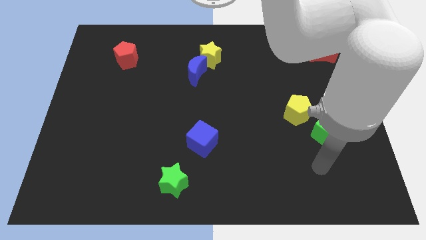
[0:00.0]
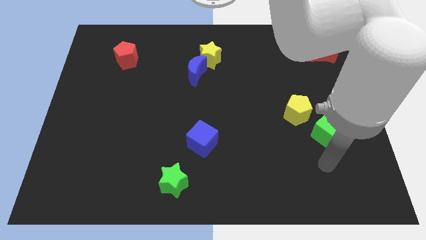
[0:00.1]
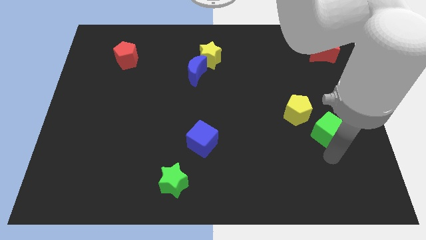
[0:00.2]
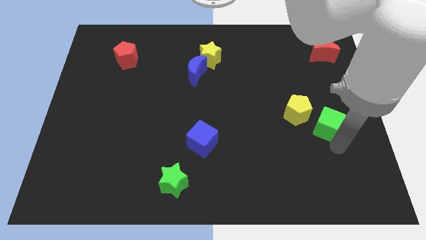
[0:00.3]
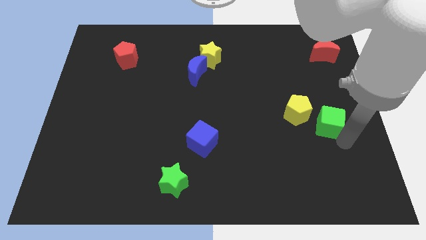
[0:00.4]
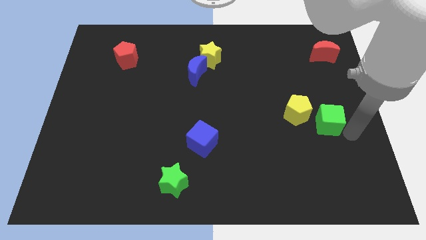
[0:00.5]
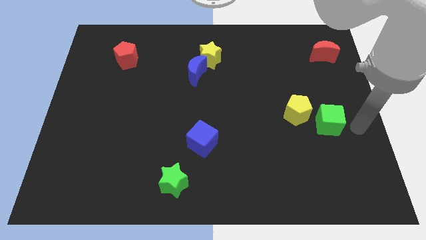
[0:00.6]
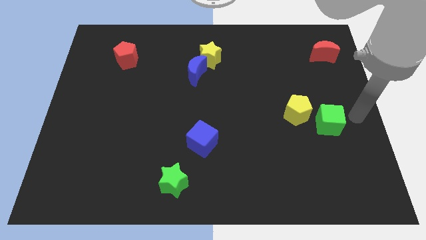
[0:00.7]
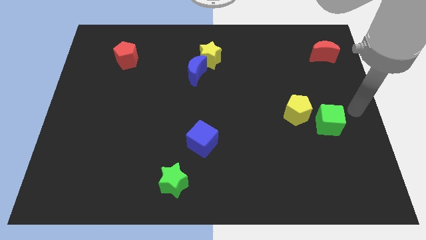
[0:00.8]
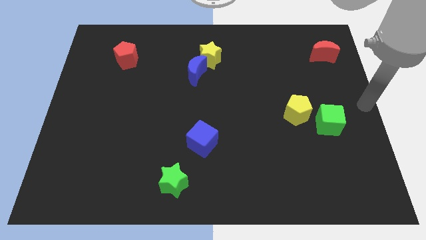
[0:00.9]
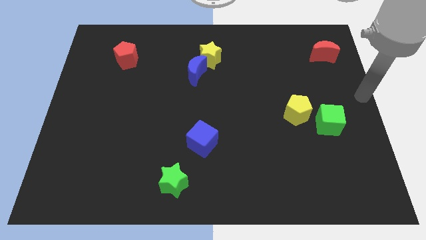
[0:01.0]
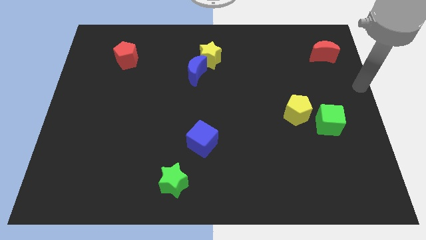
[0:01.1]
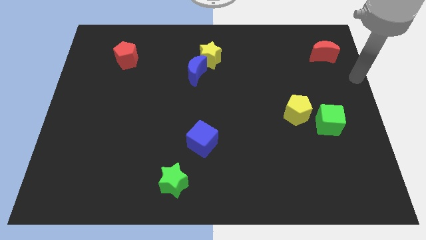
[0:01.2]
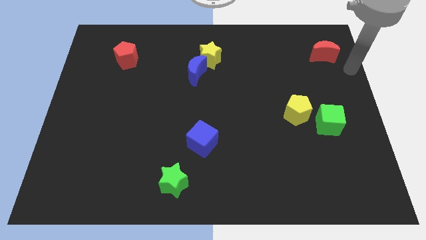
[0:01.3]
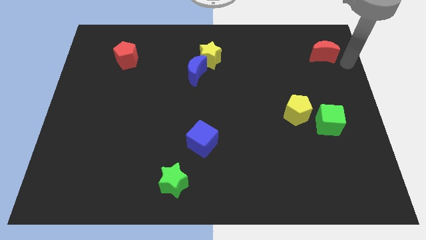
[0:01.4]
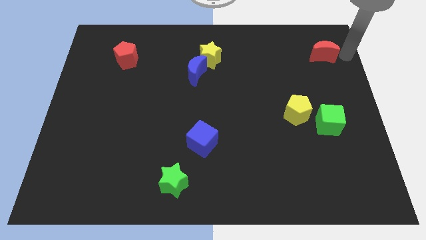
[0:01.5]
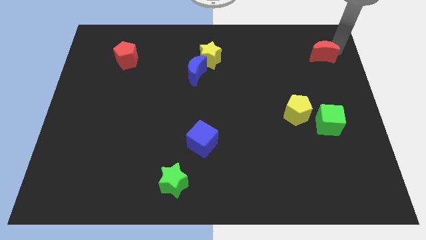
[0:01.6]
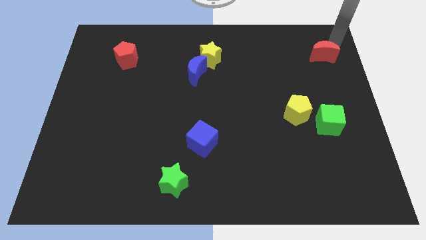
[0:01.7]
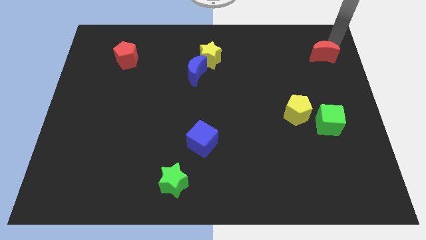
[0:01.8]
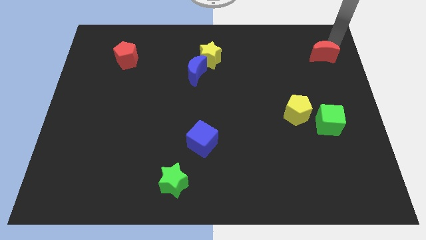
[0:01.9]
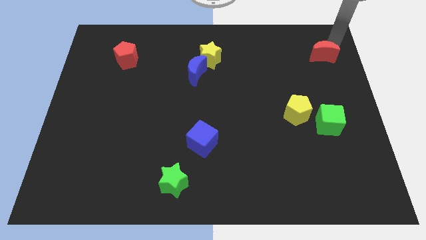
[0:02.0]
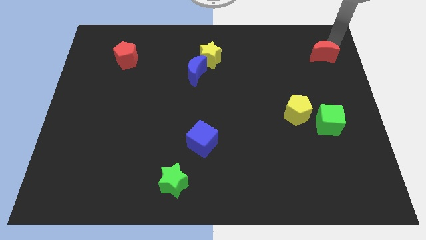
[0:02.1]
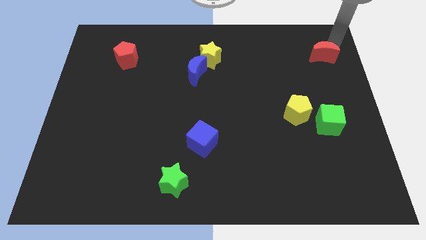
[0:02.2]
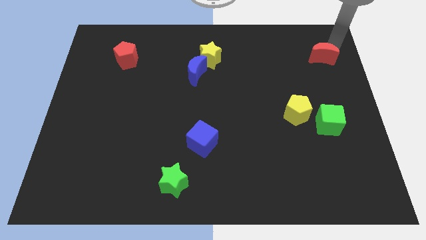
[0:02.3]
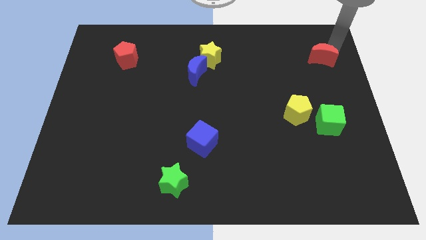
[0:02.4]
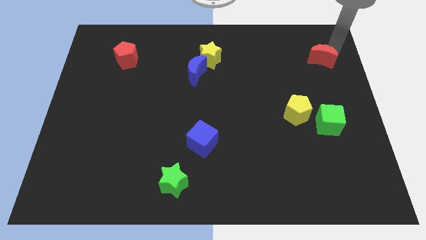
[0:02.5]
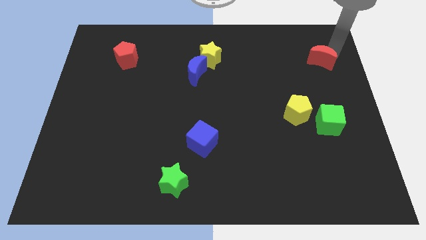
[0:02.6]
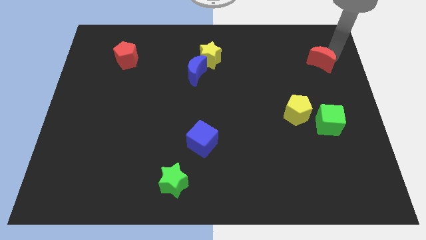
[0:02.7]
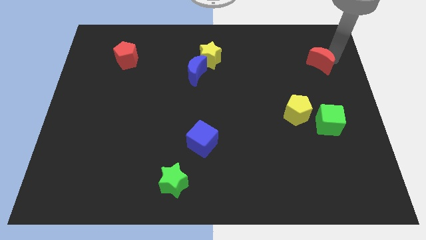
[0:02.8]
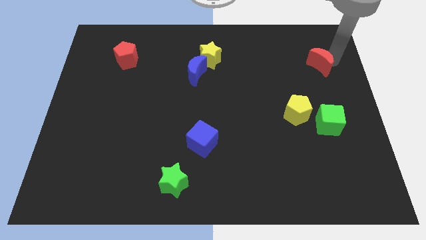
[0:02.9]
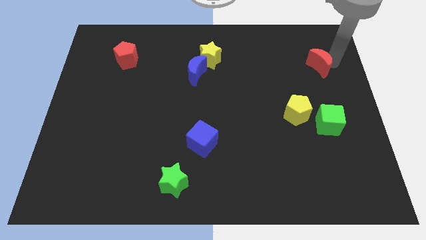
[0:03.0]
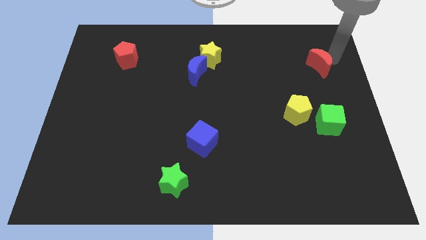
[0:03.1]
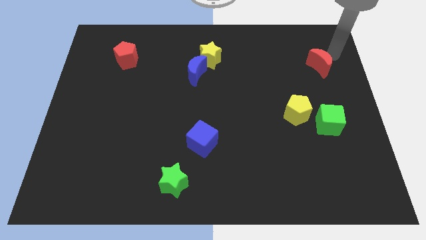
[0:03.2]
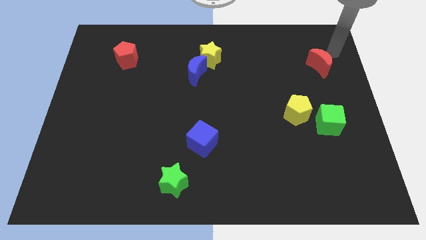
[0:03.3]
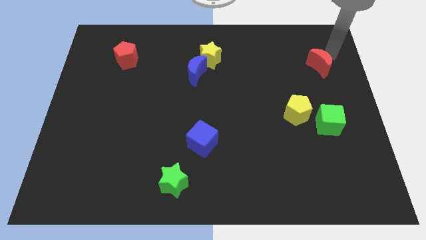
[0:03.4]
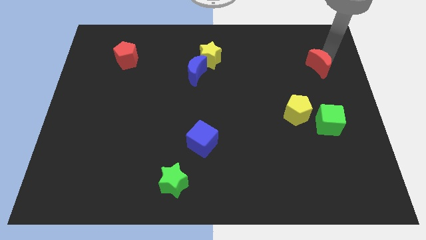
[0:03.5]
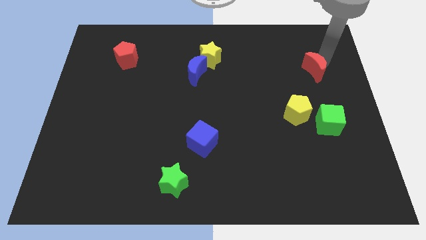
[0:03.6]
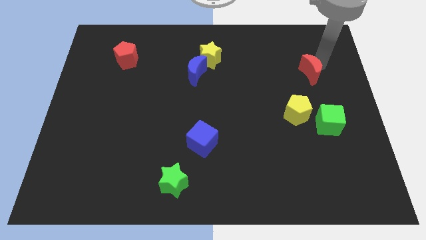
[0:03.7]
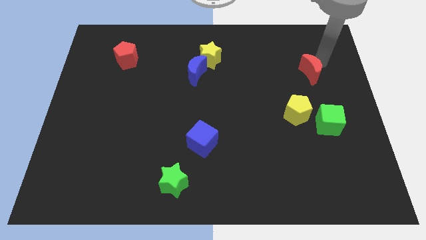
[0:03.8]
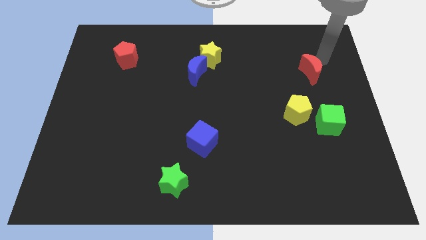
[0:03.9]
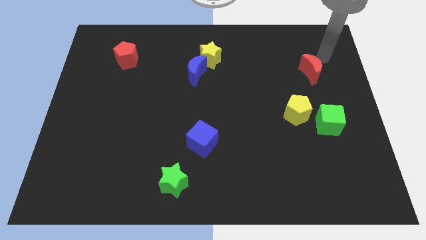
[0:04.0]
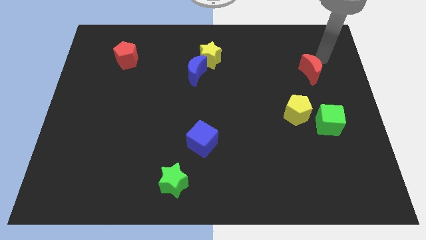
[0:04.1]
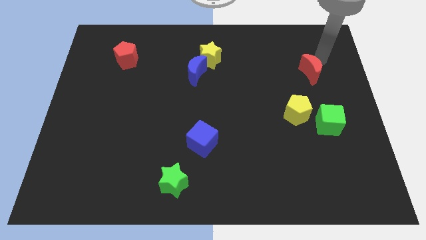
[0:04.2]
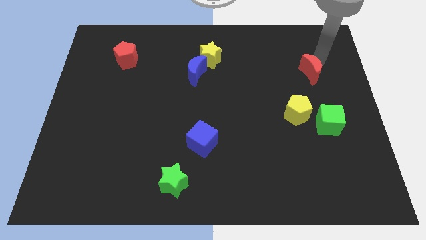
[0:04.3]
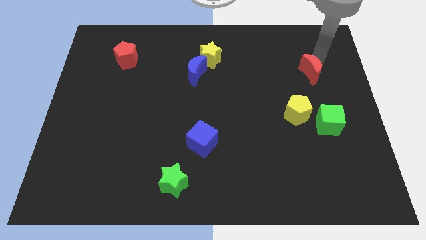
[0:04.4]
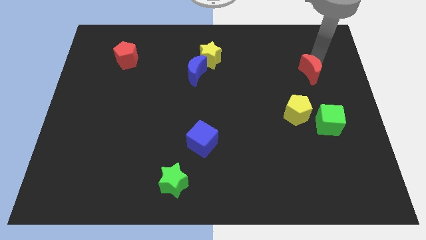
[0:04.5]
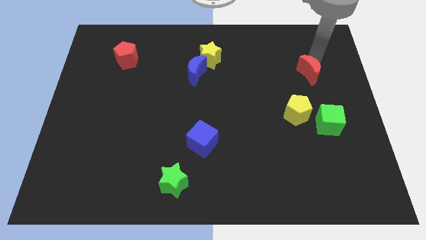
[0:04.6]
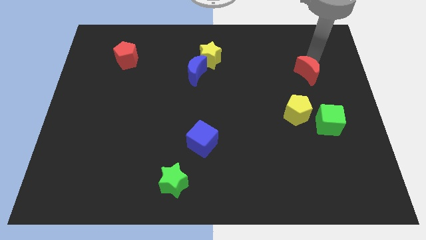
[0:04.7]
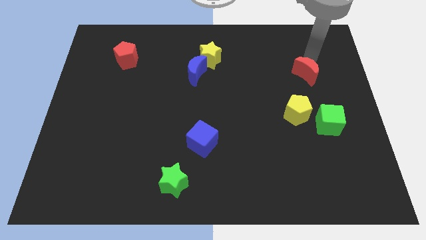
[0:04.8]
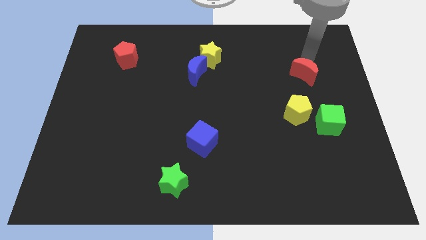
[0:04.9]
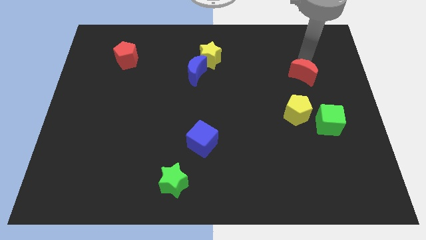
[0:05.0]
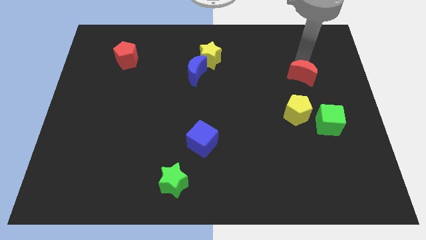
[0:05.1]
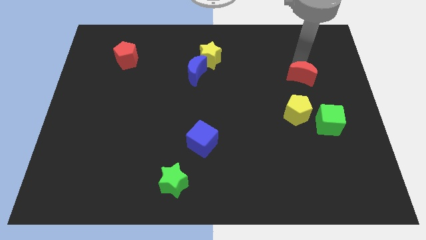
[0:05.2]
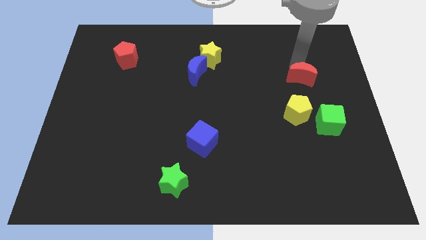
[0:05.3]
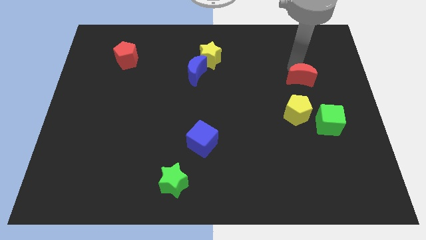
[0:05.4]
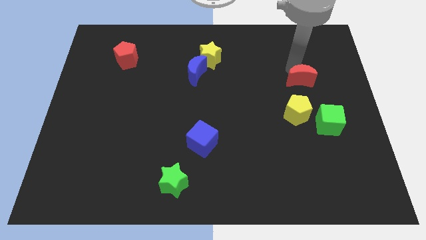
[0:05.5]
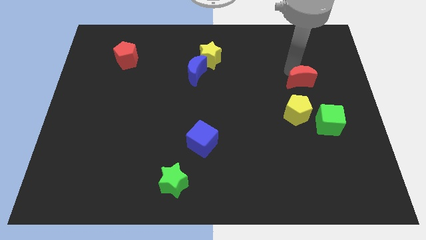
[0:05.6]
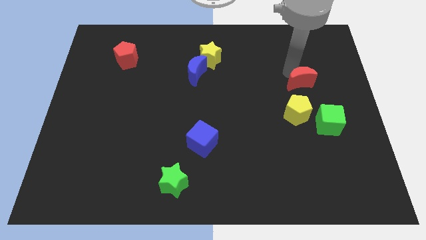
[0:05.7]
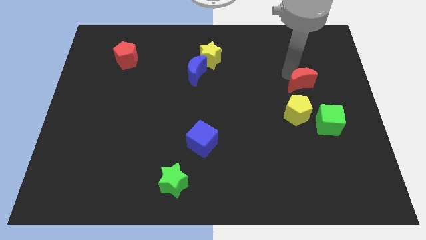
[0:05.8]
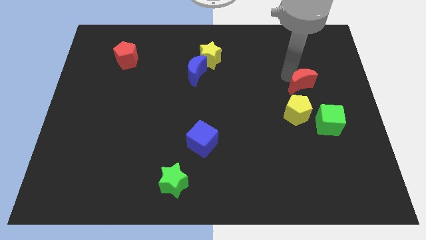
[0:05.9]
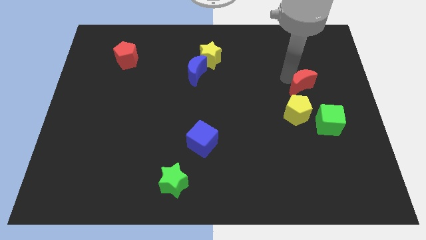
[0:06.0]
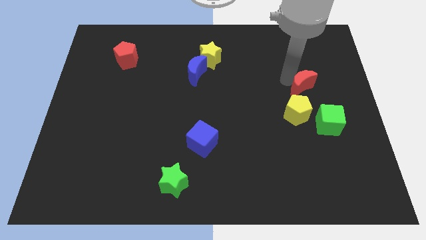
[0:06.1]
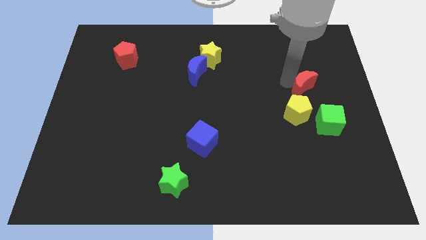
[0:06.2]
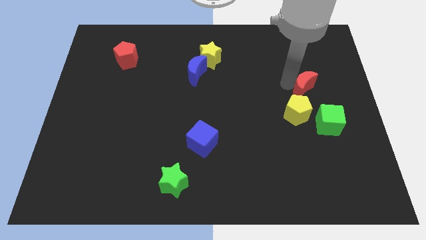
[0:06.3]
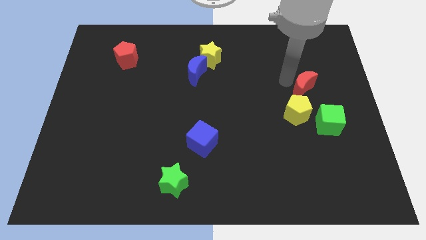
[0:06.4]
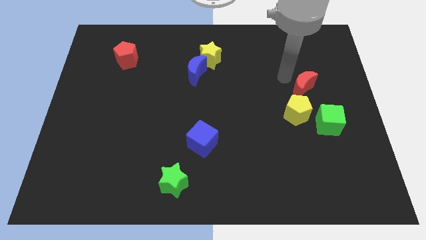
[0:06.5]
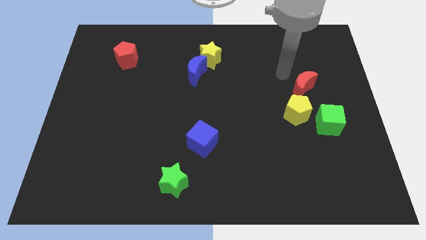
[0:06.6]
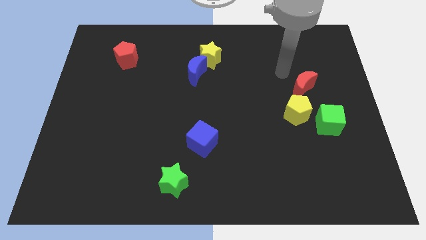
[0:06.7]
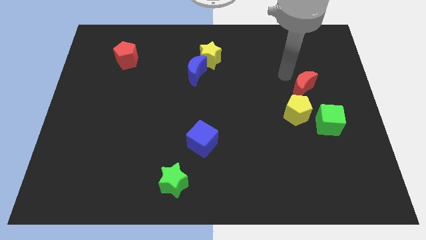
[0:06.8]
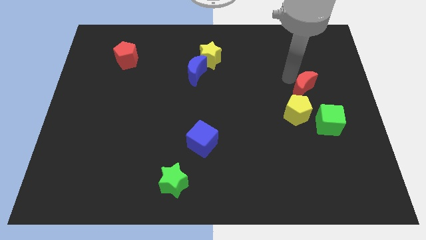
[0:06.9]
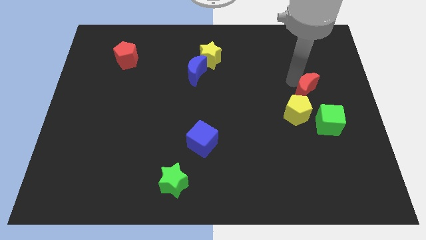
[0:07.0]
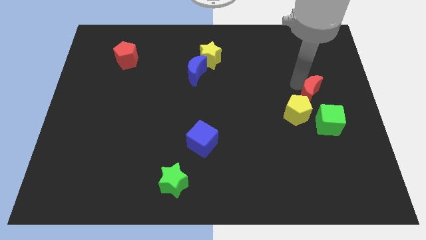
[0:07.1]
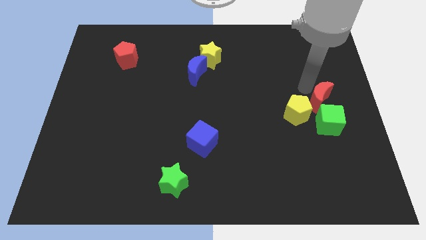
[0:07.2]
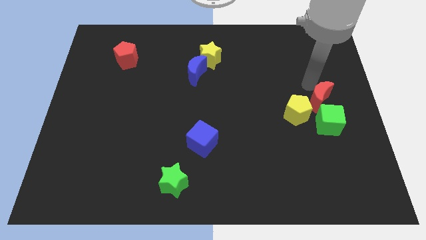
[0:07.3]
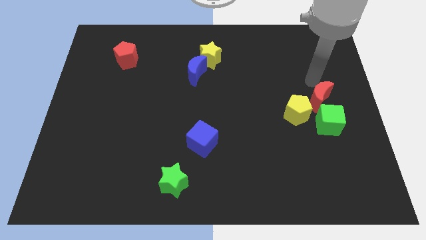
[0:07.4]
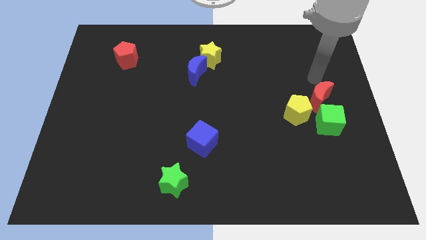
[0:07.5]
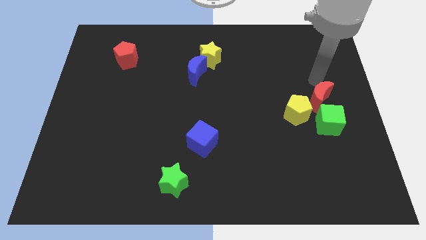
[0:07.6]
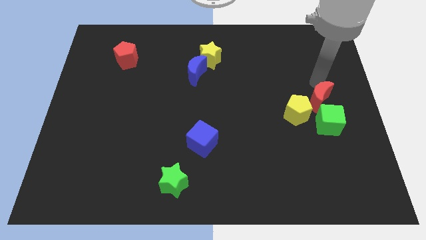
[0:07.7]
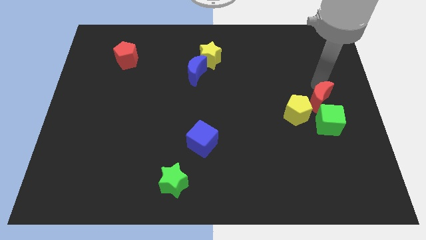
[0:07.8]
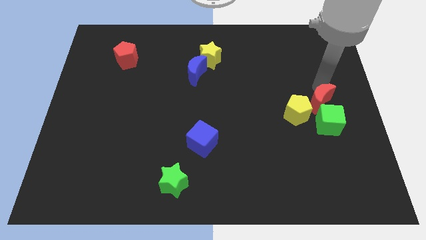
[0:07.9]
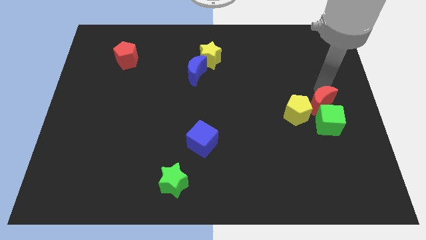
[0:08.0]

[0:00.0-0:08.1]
push the red moon to the green cube
